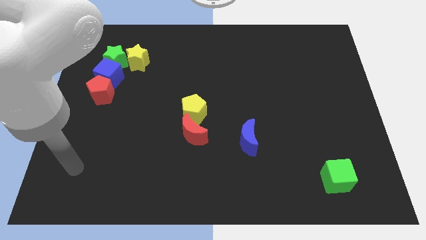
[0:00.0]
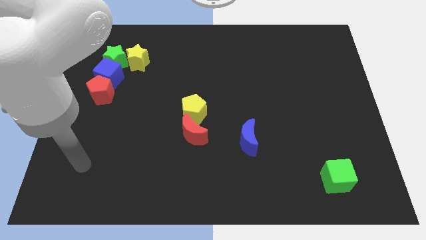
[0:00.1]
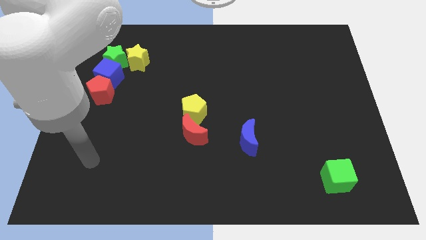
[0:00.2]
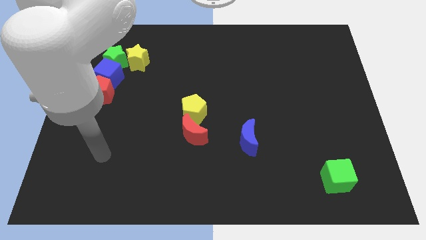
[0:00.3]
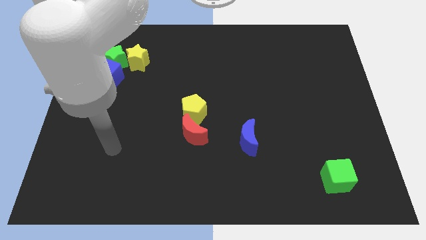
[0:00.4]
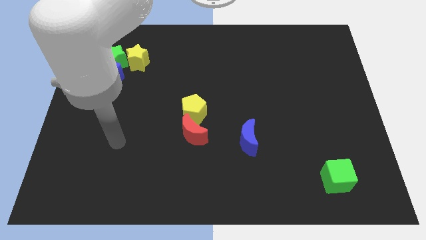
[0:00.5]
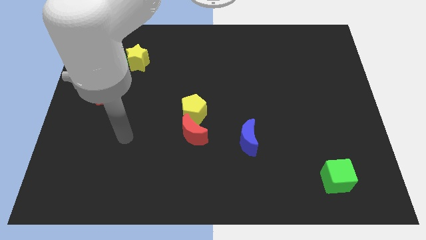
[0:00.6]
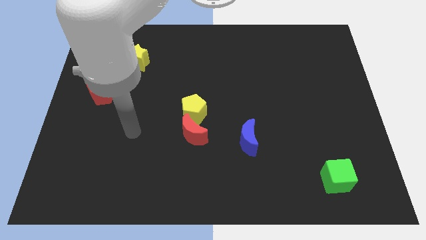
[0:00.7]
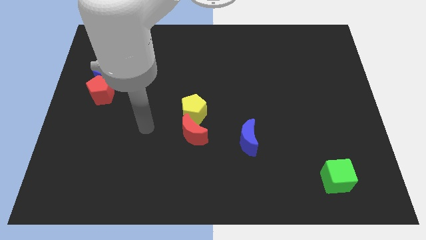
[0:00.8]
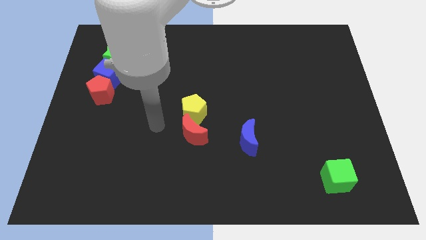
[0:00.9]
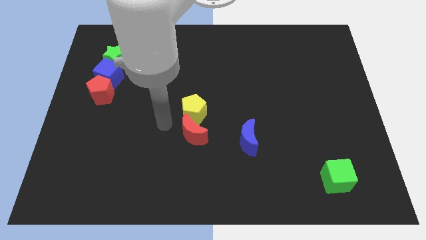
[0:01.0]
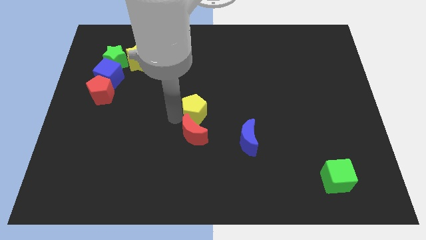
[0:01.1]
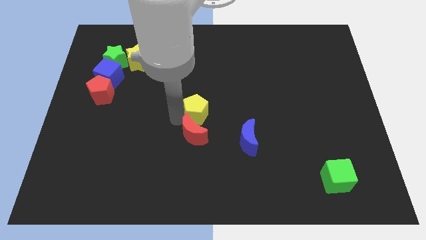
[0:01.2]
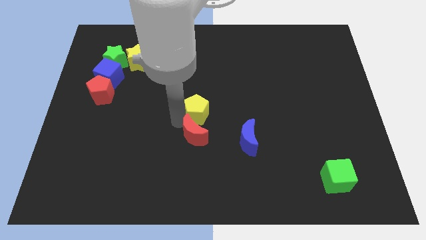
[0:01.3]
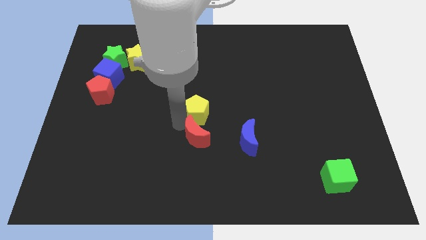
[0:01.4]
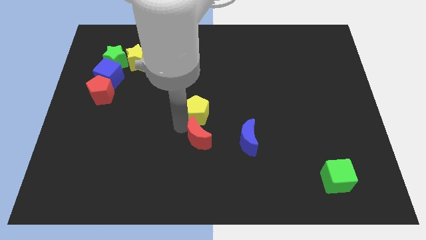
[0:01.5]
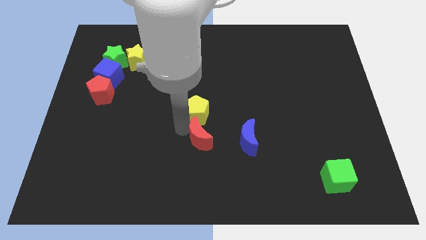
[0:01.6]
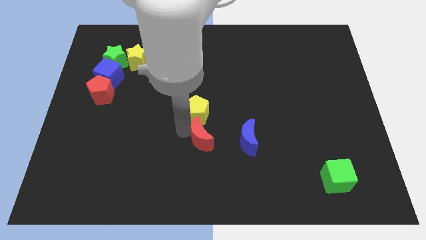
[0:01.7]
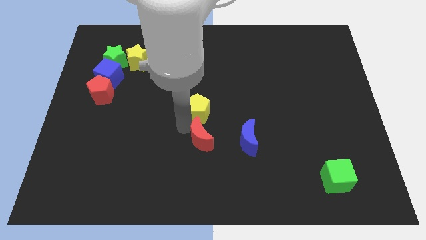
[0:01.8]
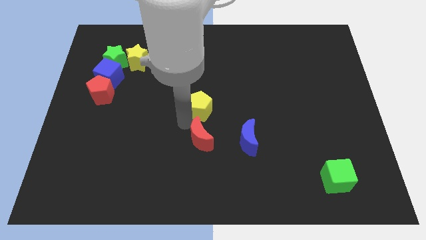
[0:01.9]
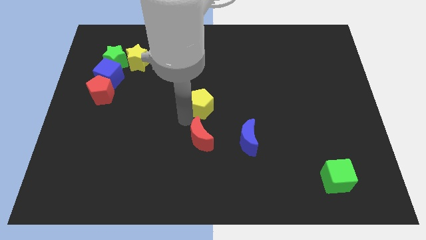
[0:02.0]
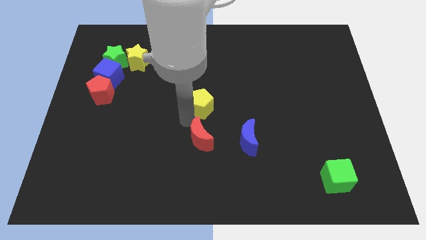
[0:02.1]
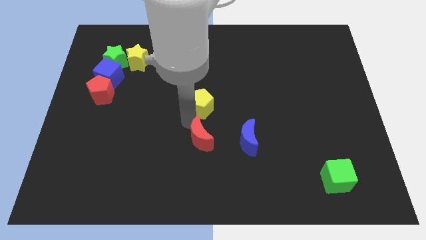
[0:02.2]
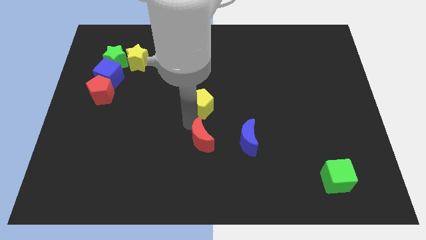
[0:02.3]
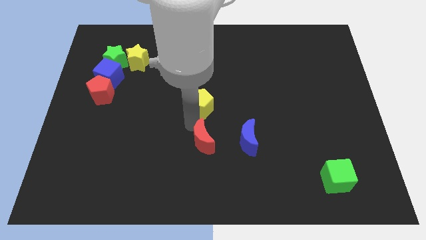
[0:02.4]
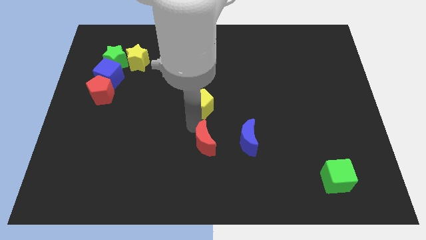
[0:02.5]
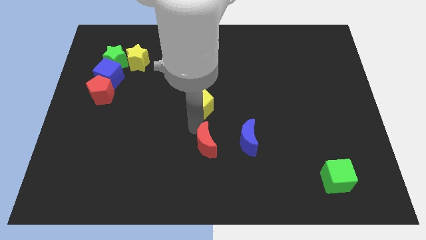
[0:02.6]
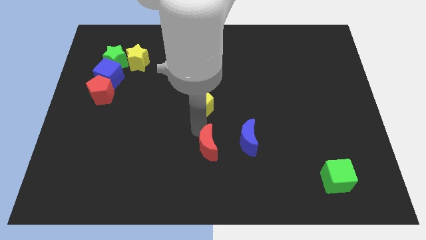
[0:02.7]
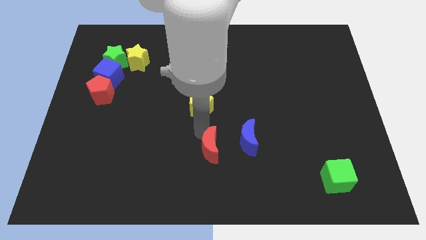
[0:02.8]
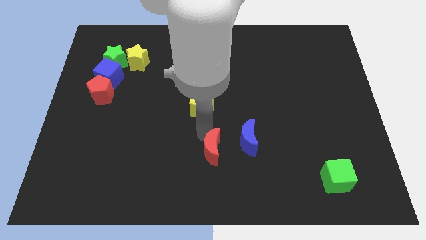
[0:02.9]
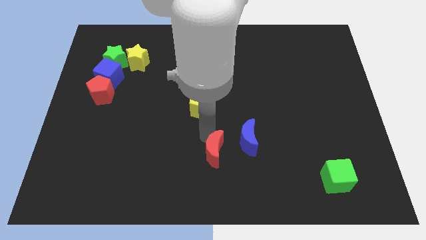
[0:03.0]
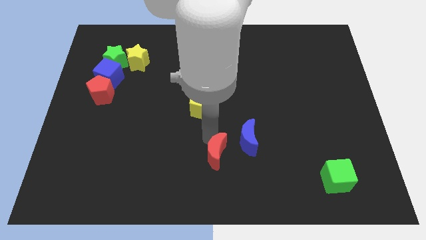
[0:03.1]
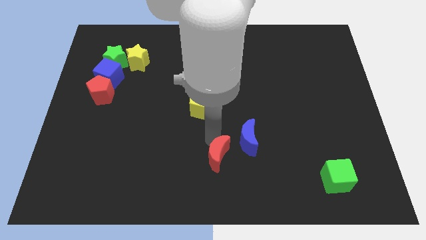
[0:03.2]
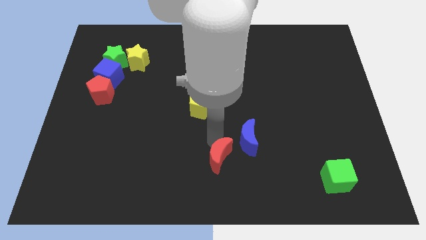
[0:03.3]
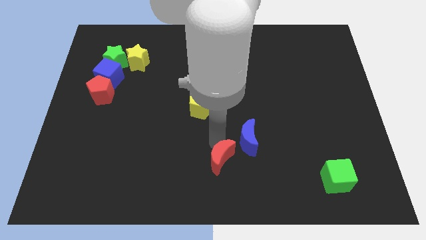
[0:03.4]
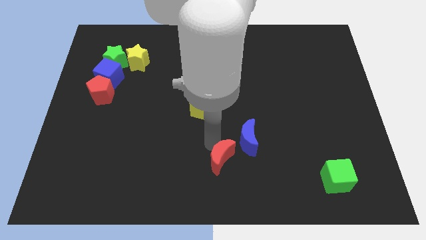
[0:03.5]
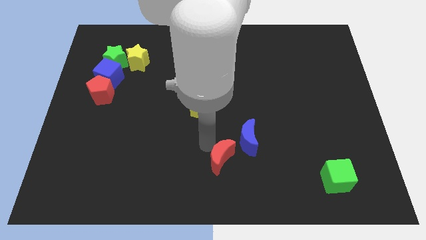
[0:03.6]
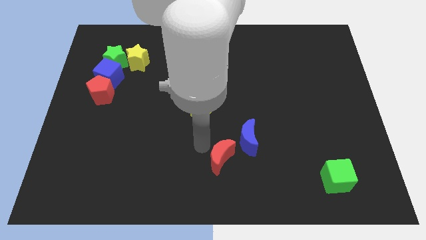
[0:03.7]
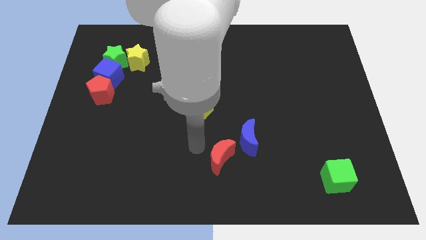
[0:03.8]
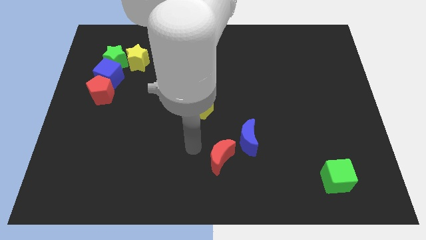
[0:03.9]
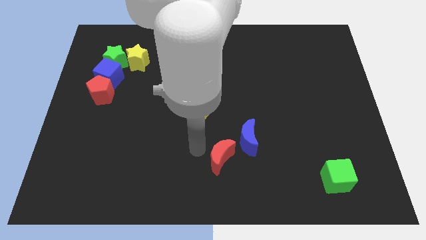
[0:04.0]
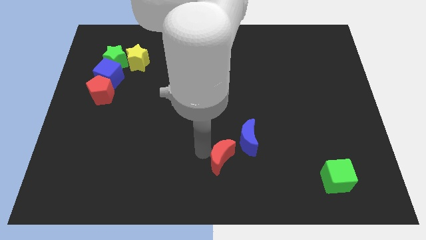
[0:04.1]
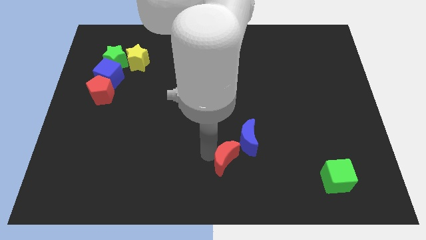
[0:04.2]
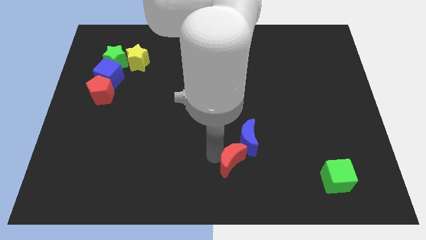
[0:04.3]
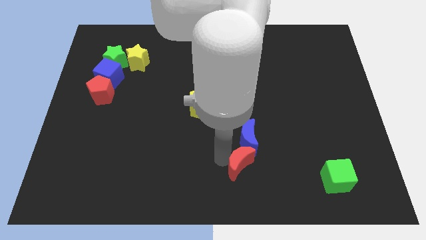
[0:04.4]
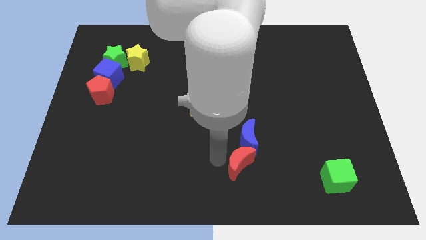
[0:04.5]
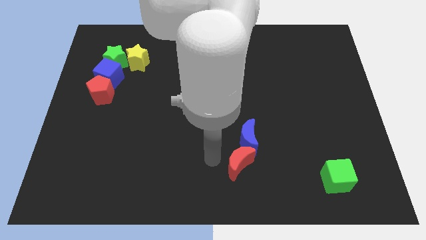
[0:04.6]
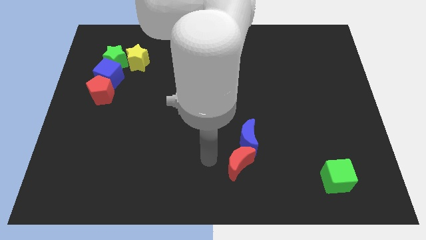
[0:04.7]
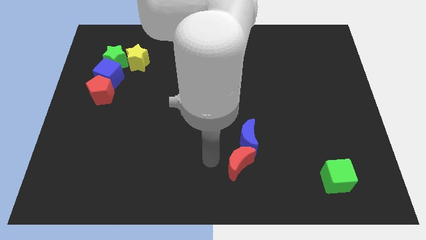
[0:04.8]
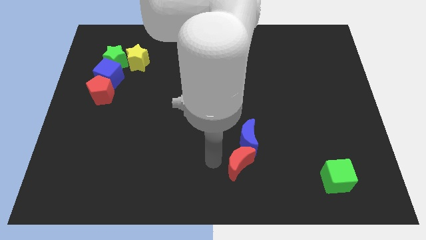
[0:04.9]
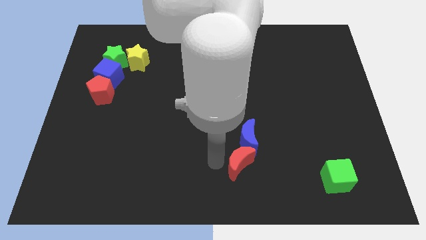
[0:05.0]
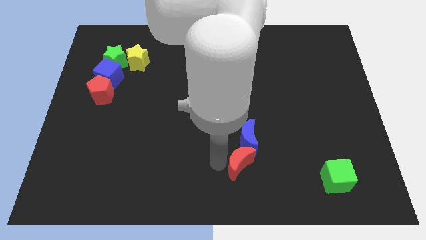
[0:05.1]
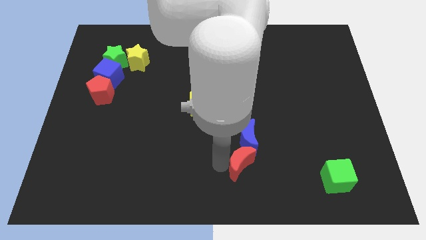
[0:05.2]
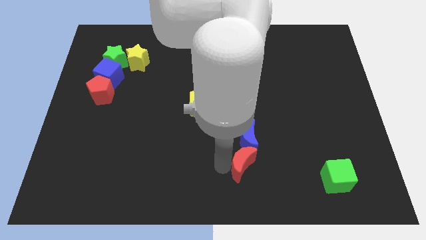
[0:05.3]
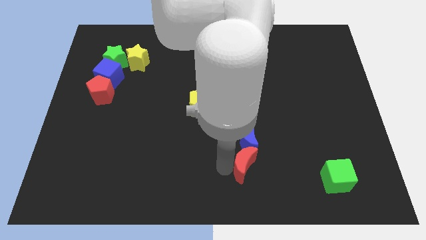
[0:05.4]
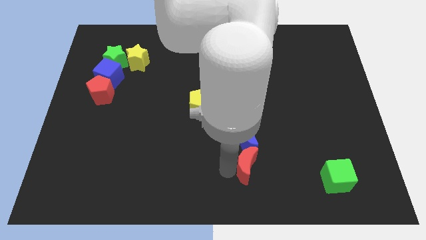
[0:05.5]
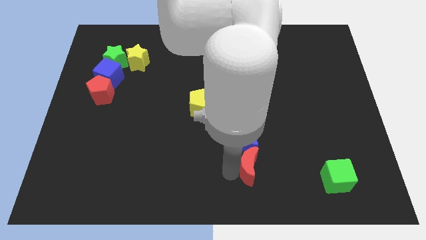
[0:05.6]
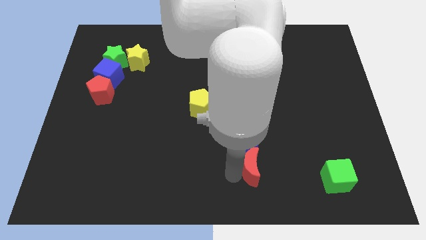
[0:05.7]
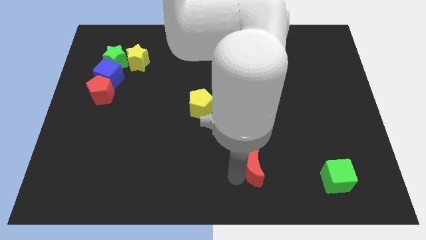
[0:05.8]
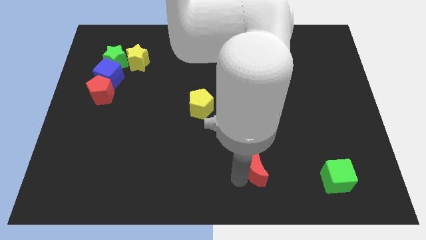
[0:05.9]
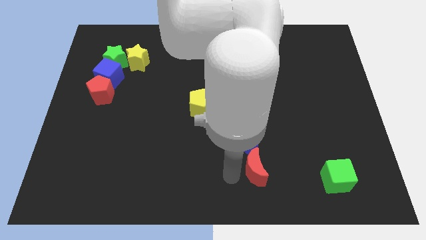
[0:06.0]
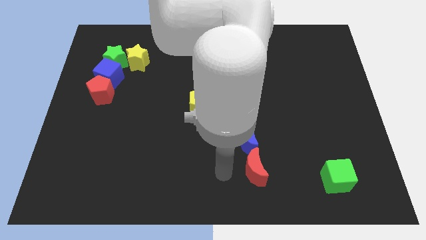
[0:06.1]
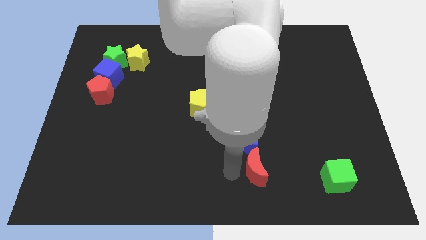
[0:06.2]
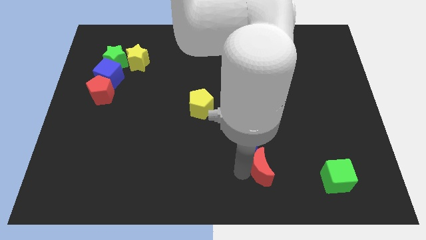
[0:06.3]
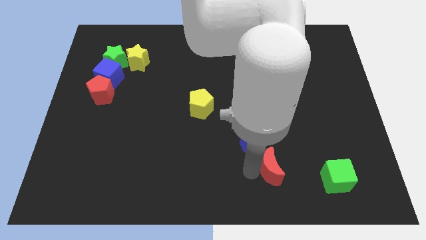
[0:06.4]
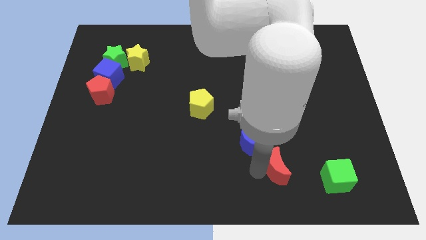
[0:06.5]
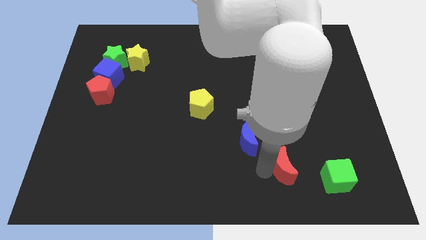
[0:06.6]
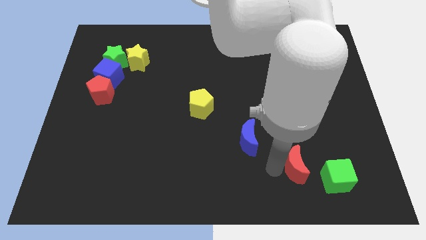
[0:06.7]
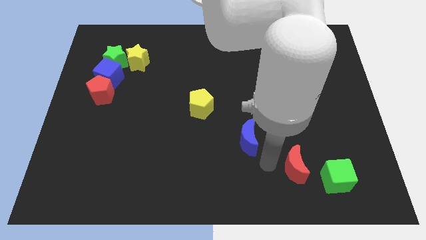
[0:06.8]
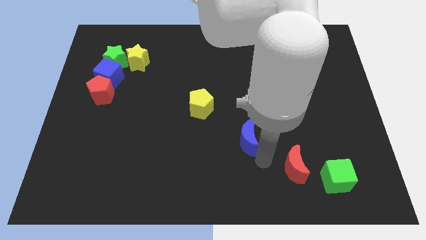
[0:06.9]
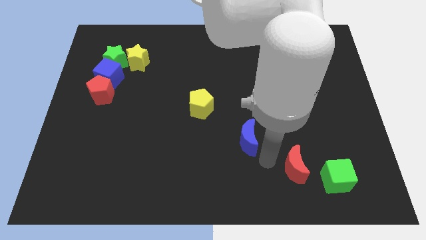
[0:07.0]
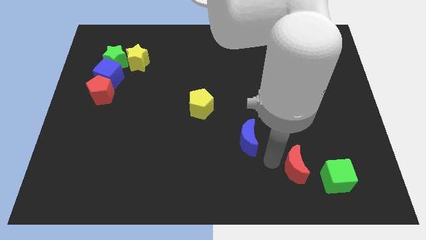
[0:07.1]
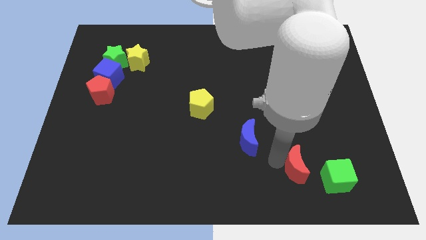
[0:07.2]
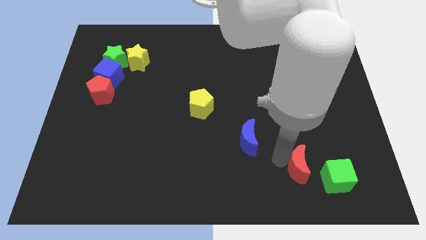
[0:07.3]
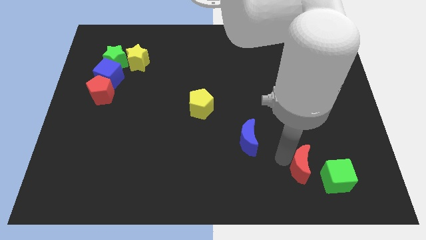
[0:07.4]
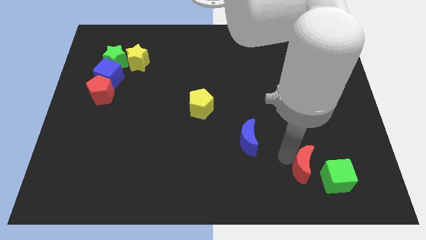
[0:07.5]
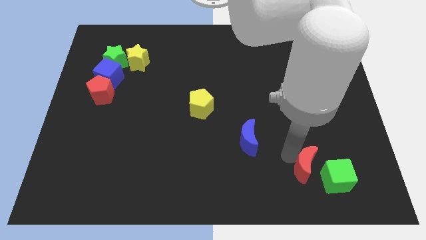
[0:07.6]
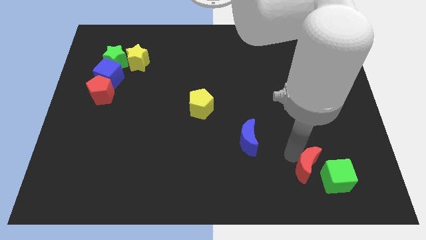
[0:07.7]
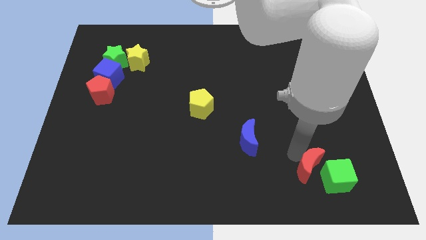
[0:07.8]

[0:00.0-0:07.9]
slide the red moon towards the green cube
